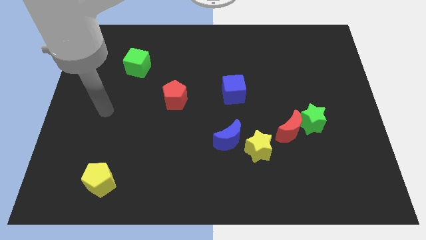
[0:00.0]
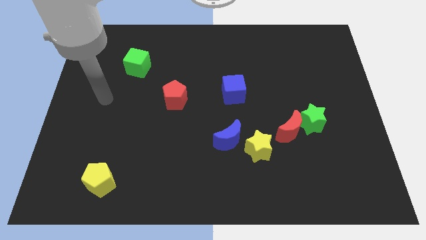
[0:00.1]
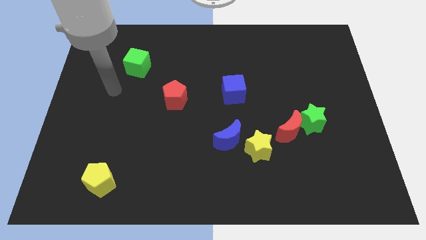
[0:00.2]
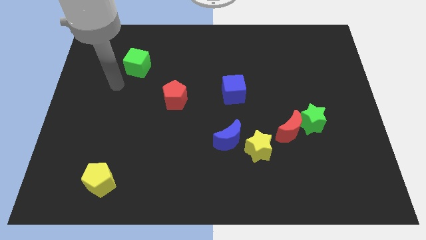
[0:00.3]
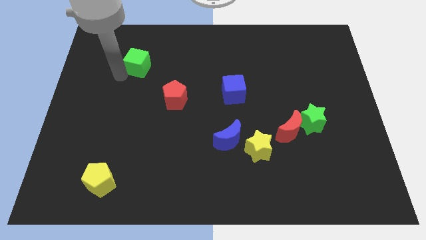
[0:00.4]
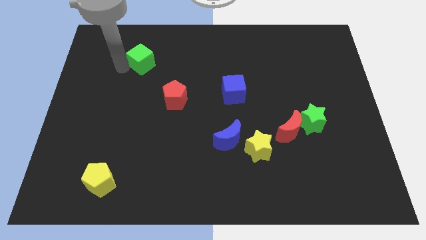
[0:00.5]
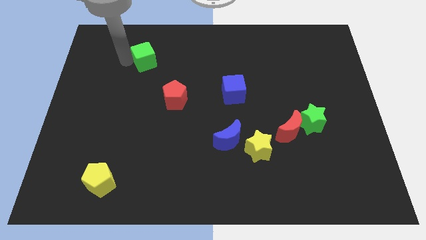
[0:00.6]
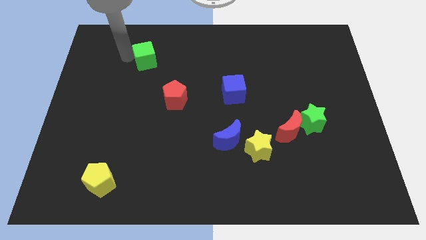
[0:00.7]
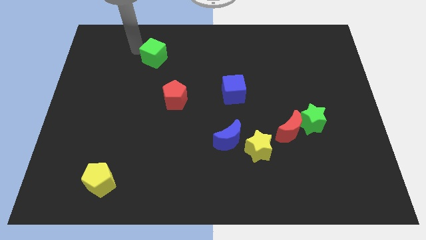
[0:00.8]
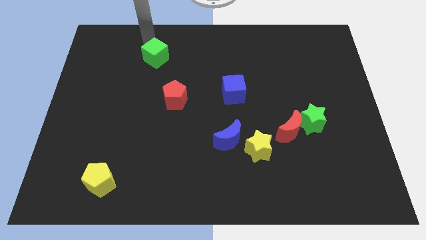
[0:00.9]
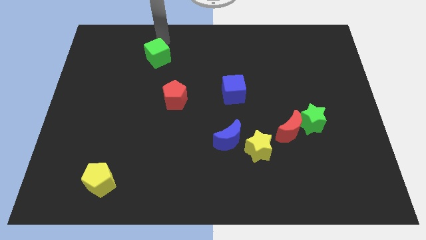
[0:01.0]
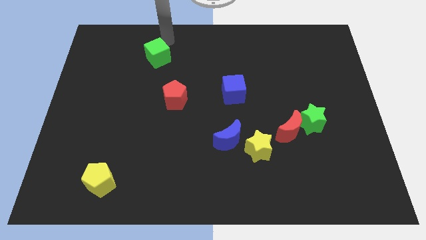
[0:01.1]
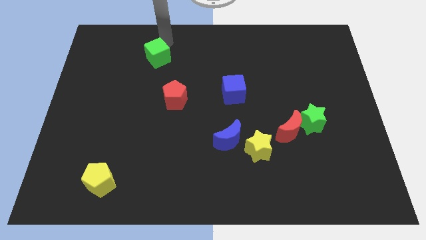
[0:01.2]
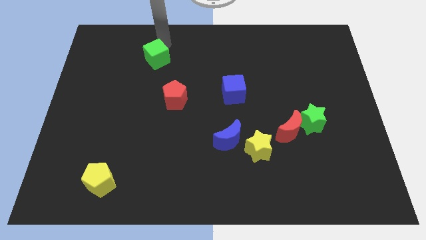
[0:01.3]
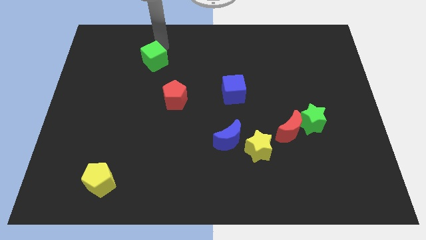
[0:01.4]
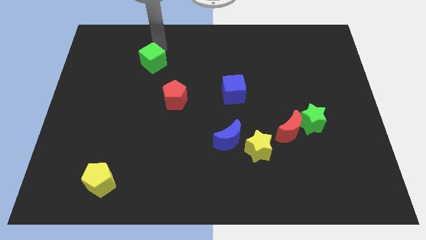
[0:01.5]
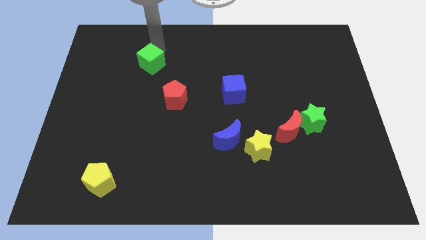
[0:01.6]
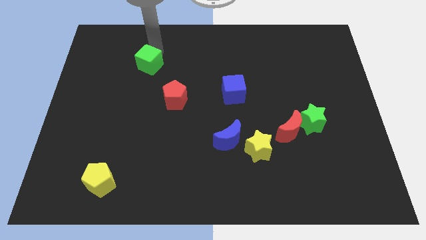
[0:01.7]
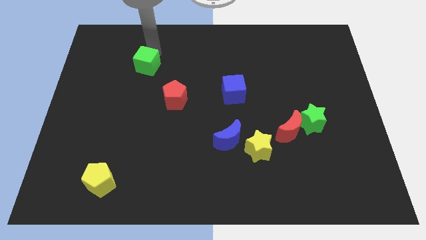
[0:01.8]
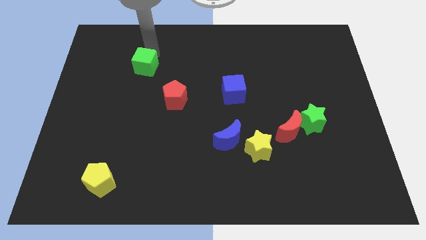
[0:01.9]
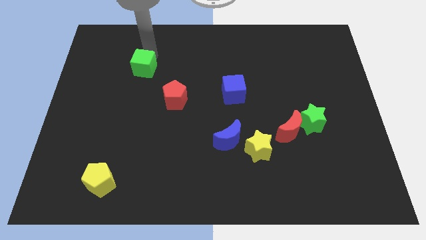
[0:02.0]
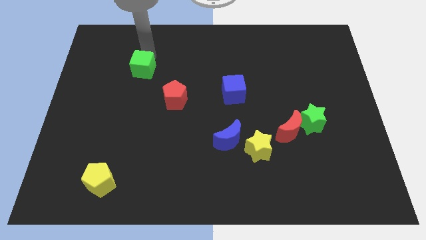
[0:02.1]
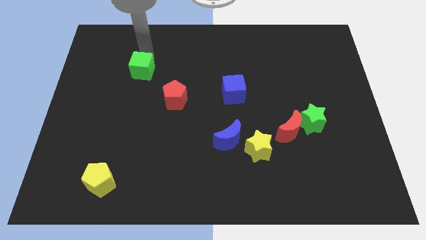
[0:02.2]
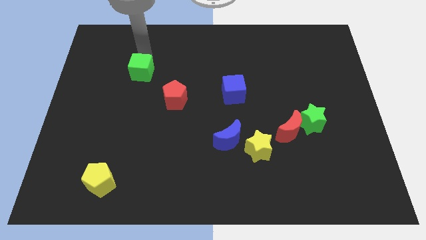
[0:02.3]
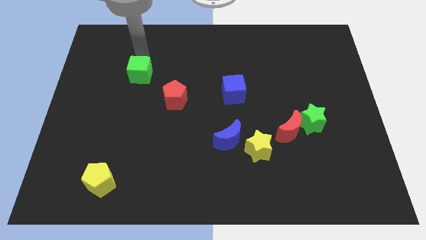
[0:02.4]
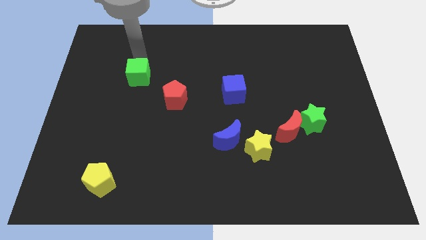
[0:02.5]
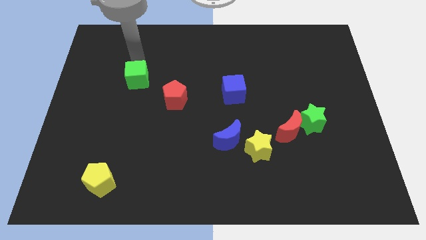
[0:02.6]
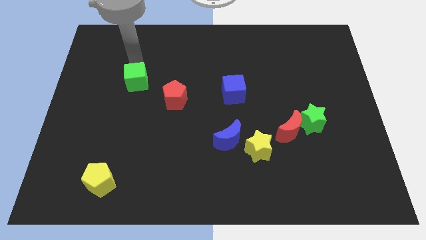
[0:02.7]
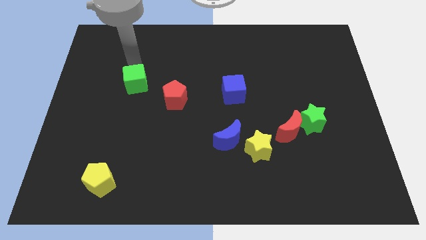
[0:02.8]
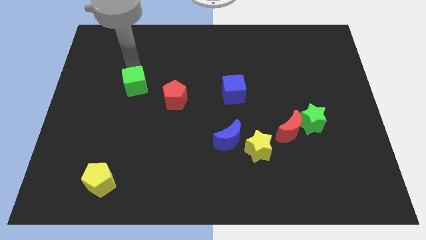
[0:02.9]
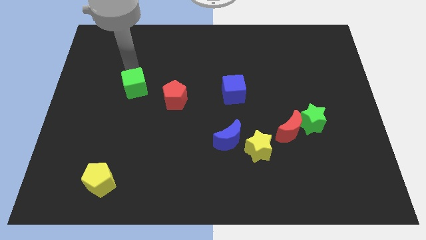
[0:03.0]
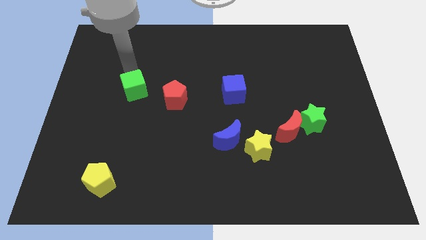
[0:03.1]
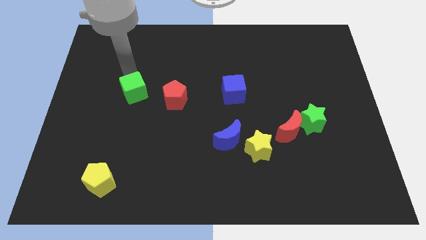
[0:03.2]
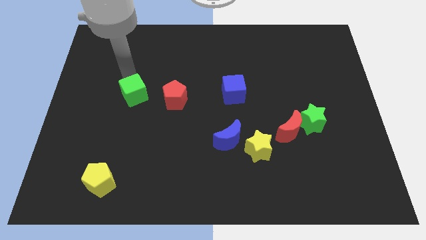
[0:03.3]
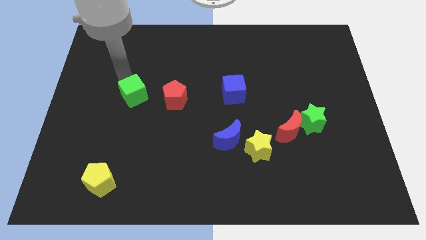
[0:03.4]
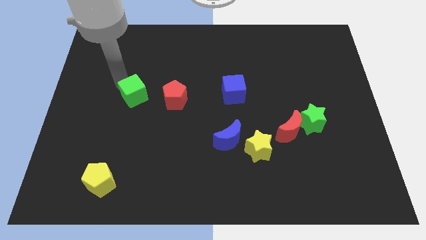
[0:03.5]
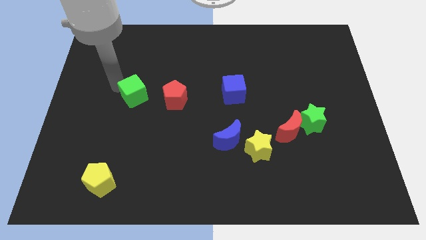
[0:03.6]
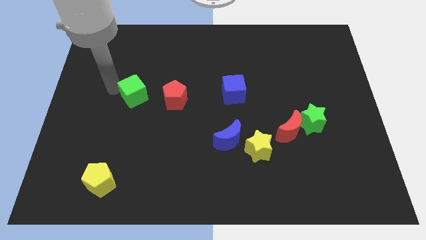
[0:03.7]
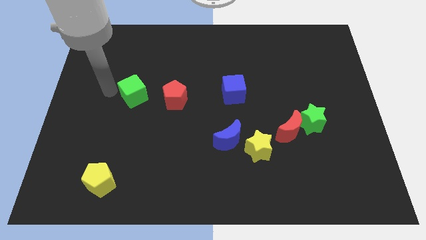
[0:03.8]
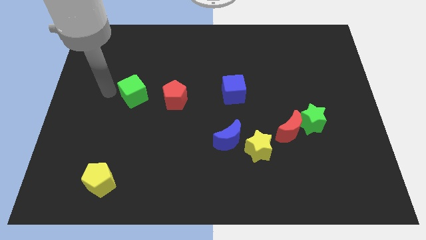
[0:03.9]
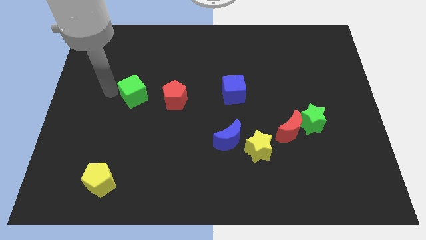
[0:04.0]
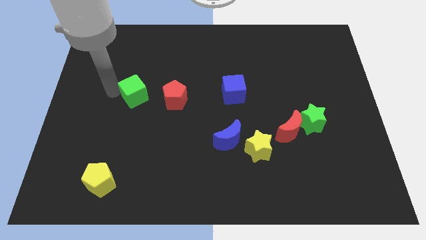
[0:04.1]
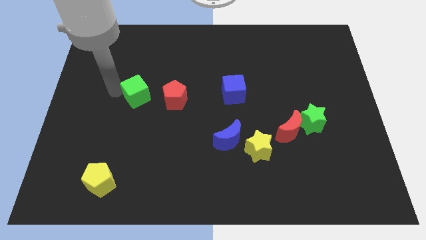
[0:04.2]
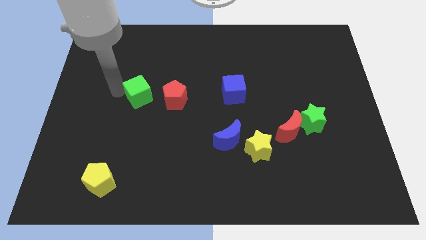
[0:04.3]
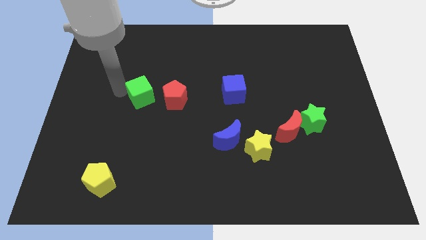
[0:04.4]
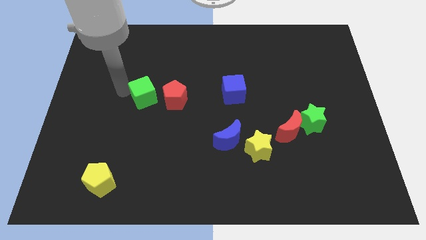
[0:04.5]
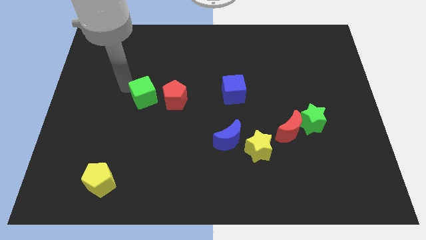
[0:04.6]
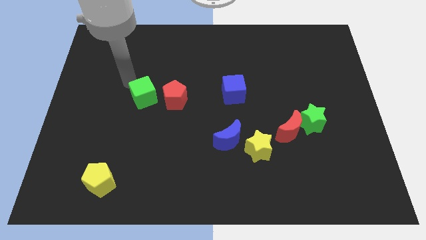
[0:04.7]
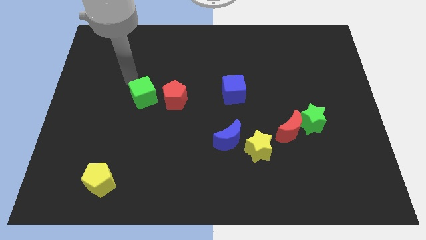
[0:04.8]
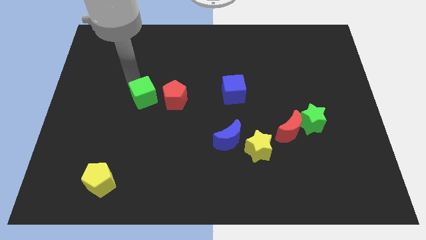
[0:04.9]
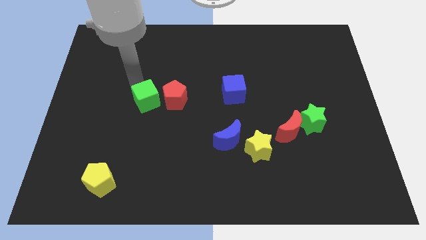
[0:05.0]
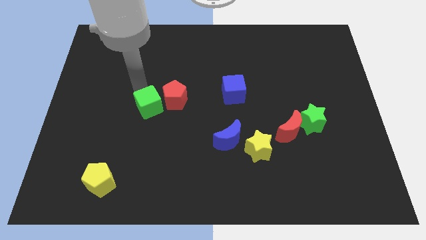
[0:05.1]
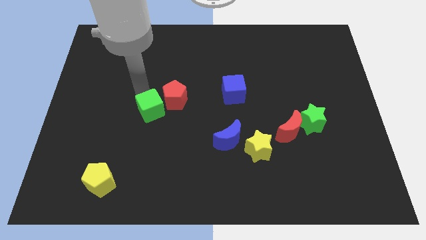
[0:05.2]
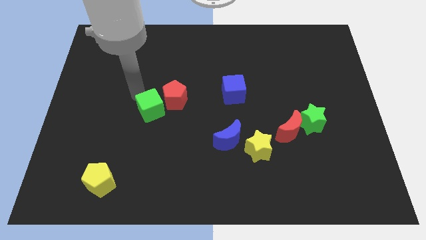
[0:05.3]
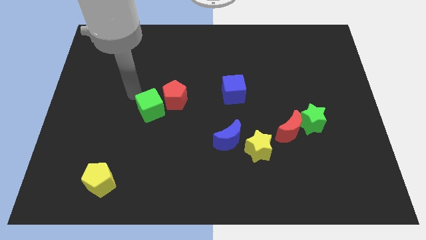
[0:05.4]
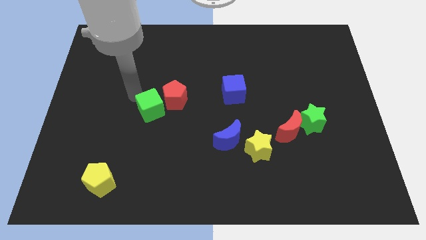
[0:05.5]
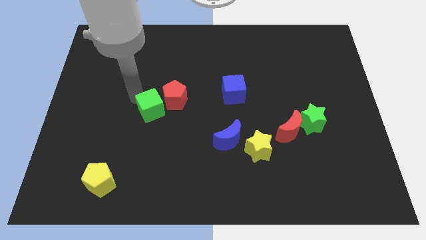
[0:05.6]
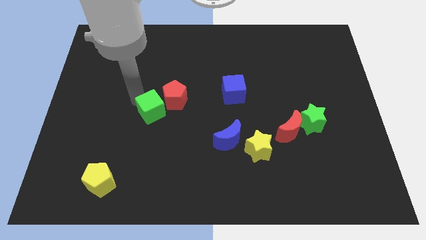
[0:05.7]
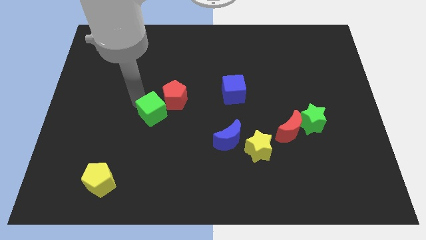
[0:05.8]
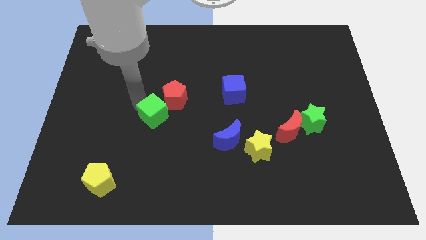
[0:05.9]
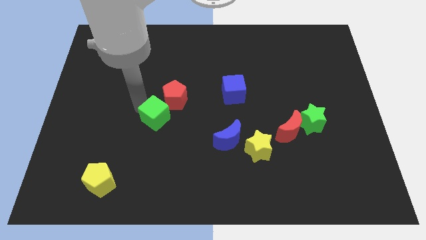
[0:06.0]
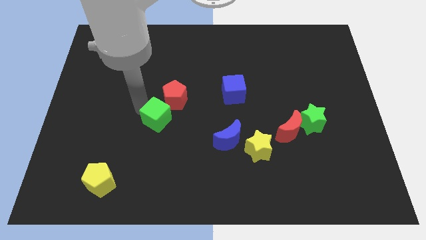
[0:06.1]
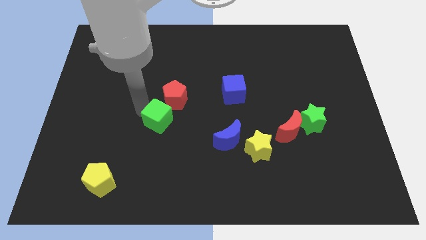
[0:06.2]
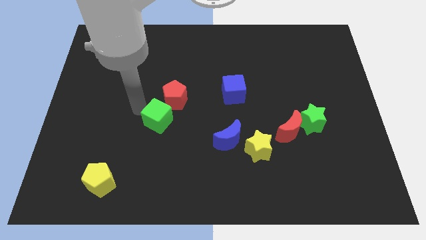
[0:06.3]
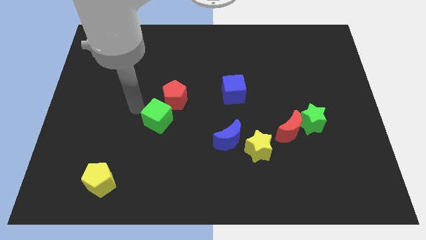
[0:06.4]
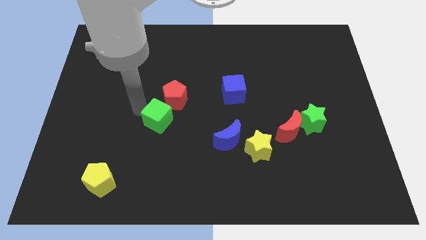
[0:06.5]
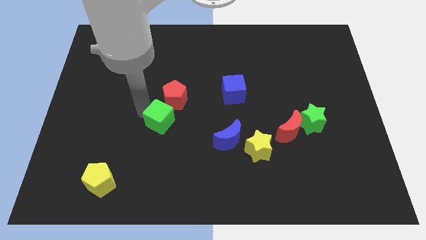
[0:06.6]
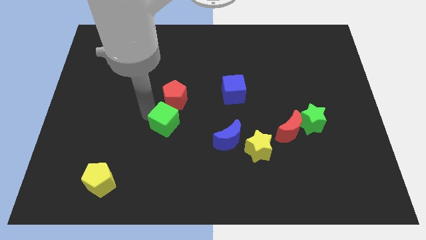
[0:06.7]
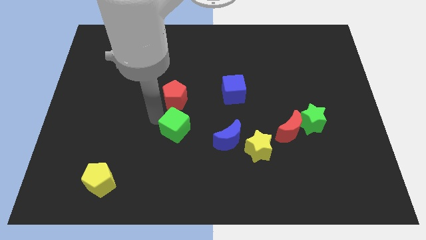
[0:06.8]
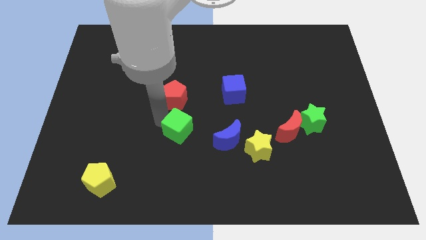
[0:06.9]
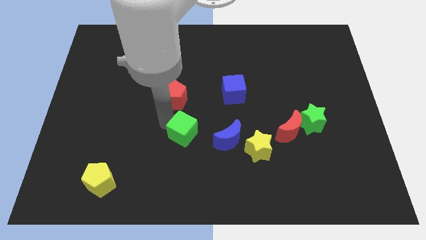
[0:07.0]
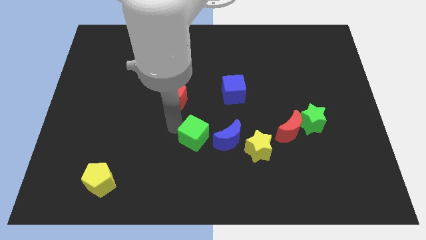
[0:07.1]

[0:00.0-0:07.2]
move the green cube left of the yellow star

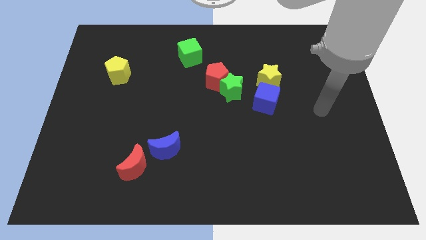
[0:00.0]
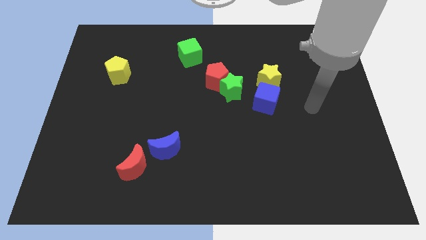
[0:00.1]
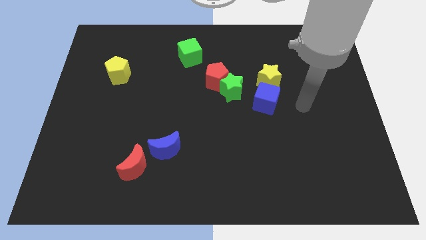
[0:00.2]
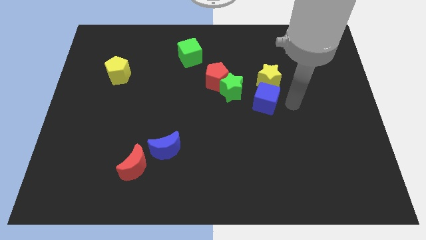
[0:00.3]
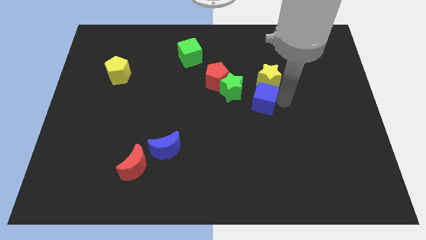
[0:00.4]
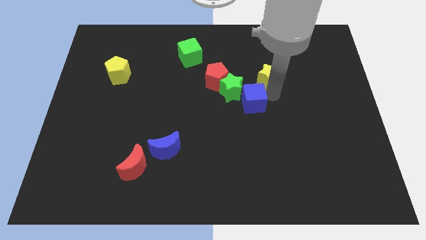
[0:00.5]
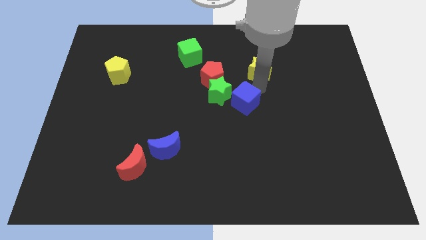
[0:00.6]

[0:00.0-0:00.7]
push the green star to the bottom left of the red pentagon
